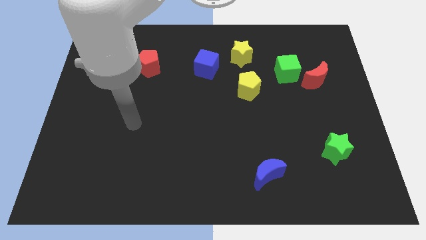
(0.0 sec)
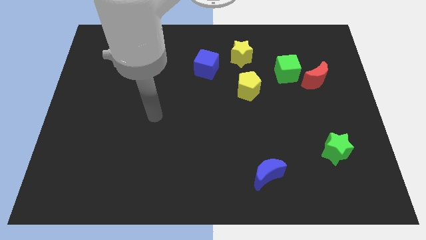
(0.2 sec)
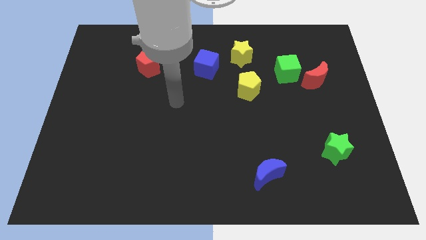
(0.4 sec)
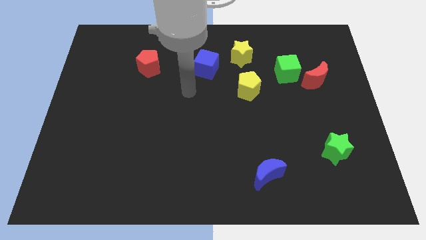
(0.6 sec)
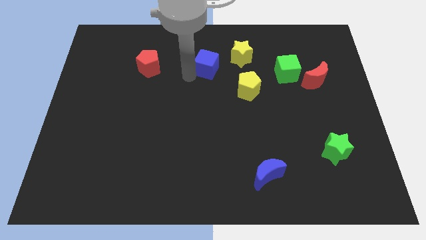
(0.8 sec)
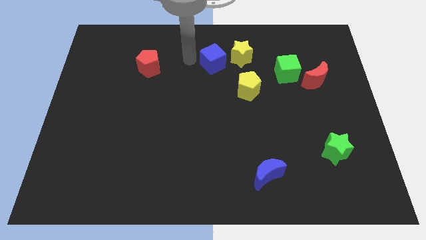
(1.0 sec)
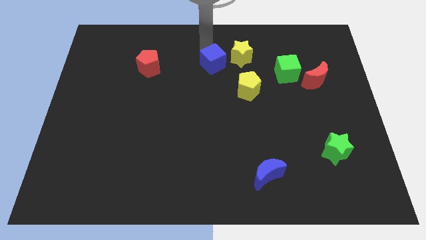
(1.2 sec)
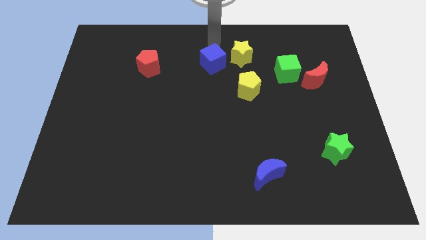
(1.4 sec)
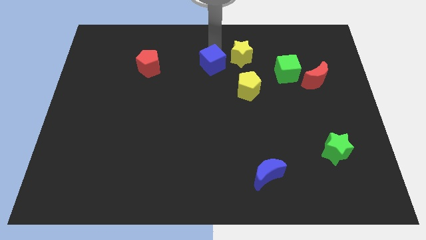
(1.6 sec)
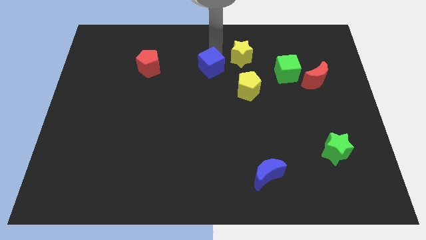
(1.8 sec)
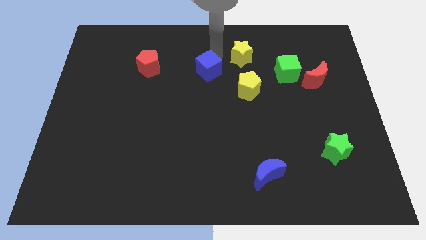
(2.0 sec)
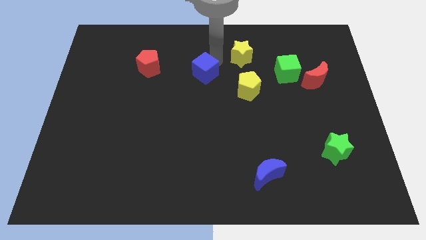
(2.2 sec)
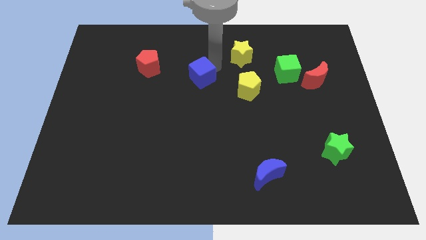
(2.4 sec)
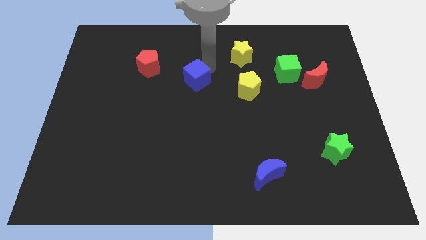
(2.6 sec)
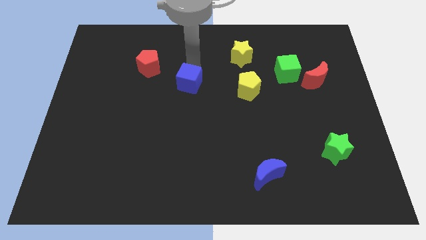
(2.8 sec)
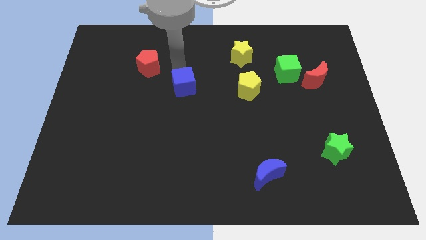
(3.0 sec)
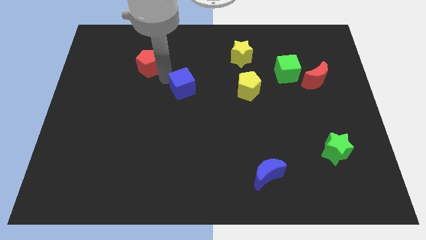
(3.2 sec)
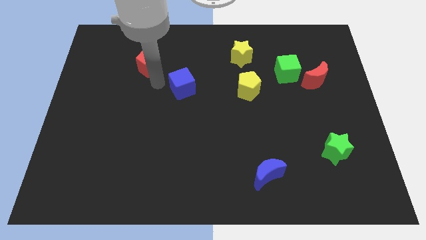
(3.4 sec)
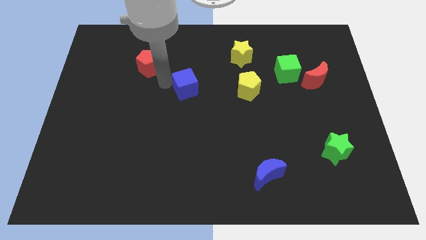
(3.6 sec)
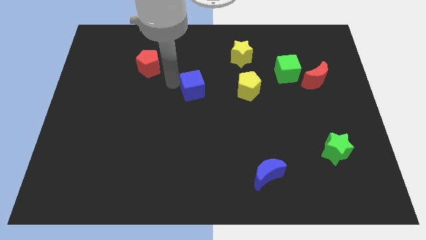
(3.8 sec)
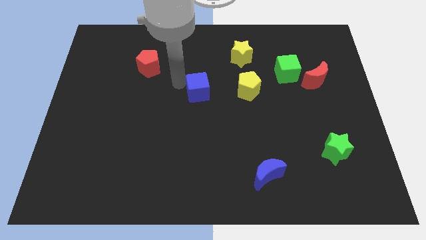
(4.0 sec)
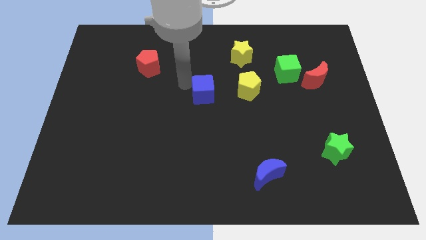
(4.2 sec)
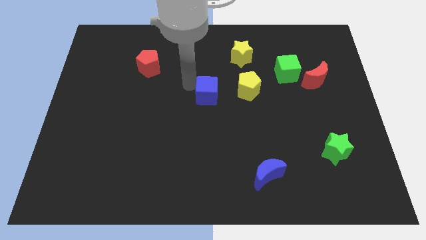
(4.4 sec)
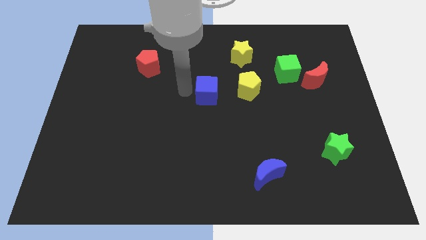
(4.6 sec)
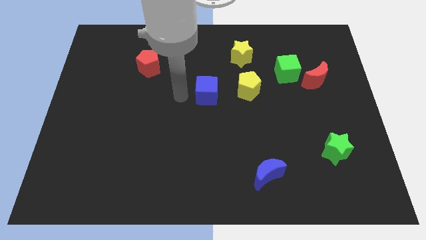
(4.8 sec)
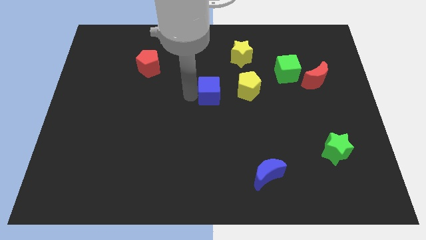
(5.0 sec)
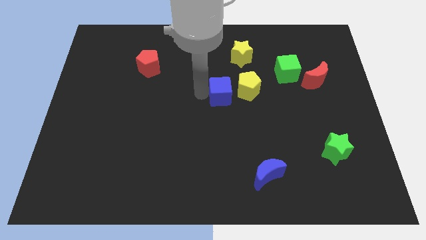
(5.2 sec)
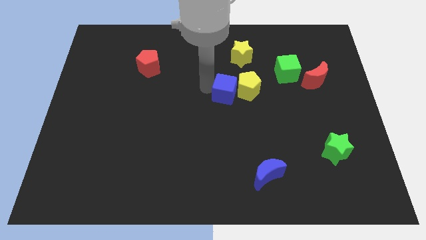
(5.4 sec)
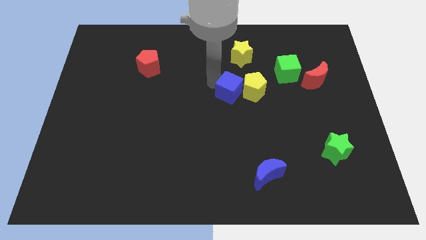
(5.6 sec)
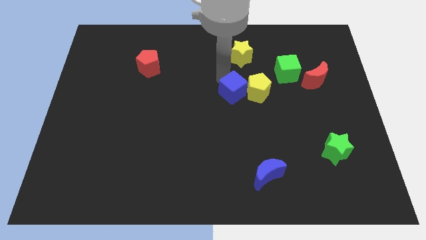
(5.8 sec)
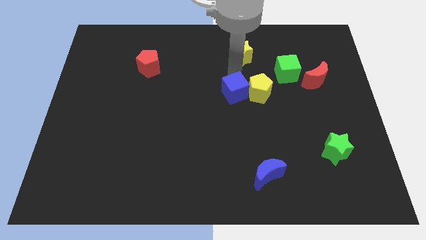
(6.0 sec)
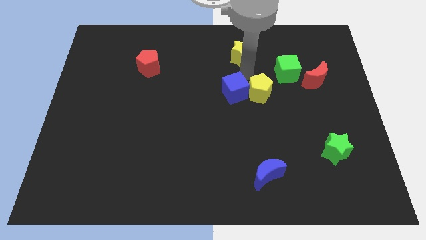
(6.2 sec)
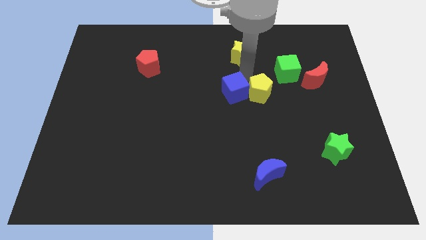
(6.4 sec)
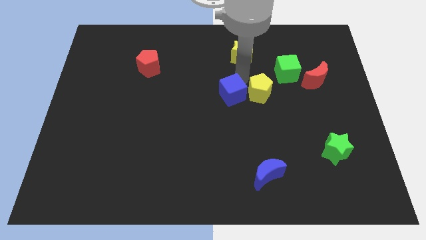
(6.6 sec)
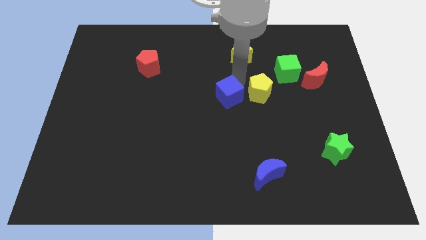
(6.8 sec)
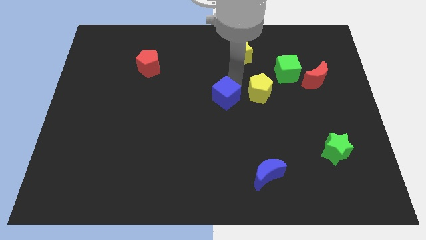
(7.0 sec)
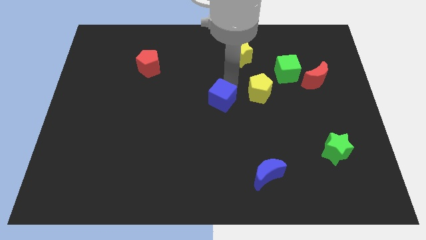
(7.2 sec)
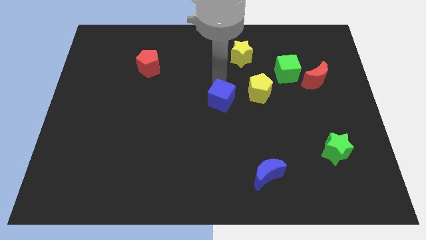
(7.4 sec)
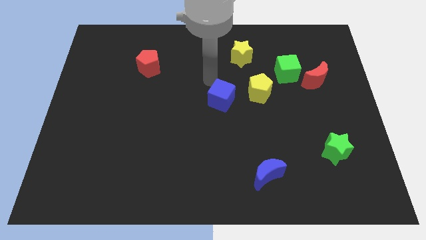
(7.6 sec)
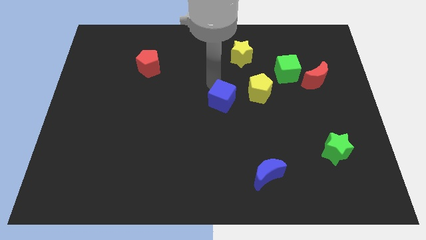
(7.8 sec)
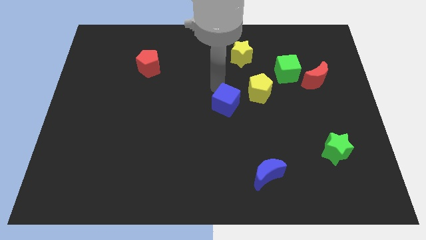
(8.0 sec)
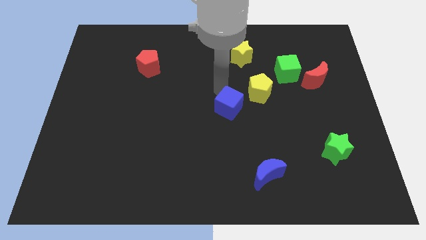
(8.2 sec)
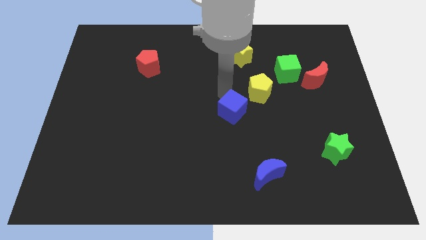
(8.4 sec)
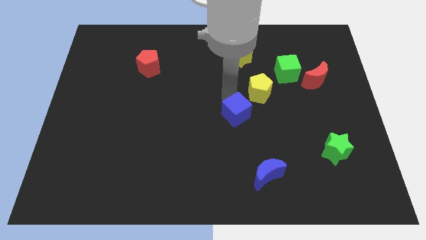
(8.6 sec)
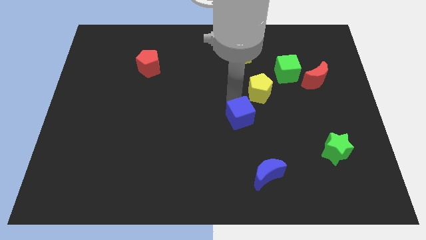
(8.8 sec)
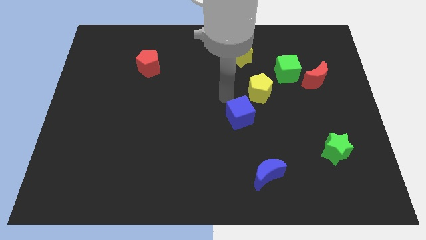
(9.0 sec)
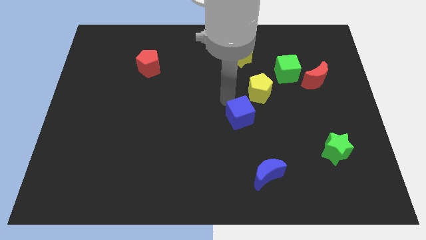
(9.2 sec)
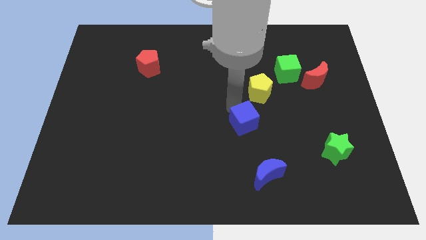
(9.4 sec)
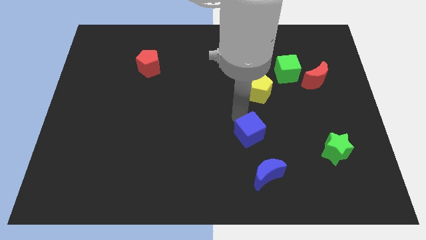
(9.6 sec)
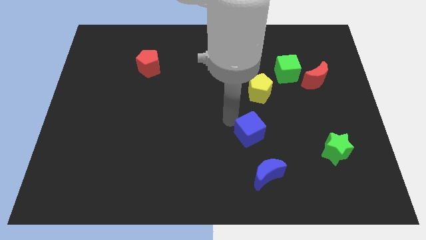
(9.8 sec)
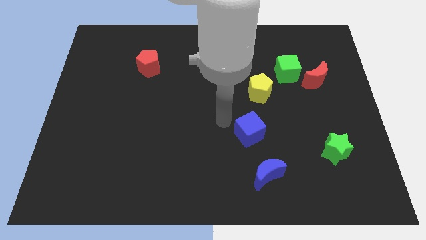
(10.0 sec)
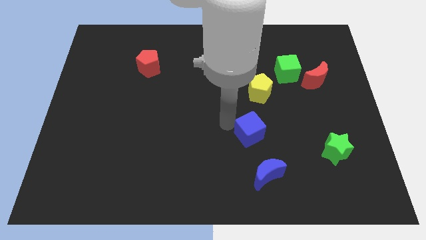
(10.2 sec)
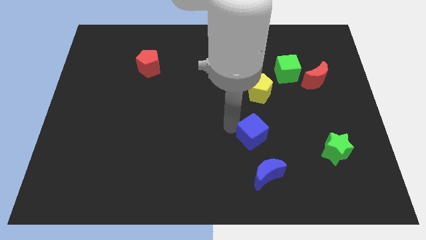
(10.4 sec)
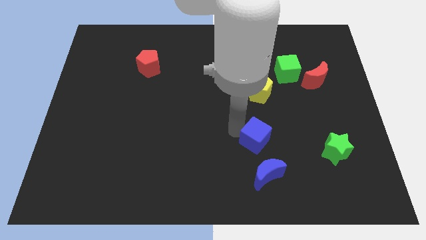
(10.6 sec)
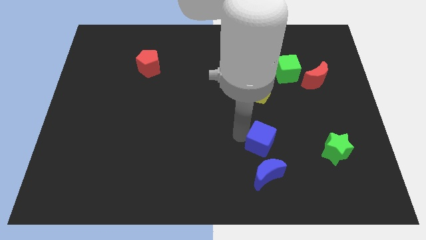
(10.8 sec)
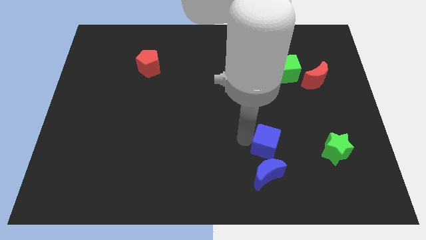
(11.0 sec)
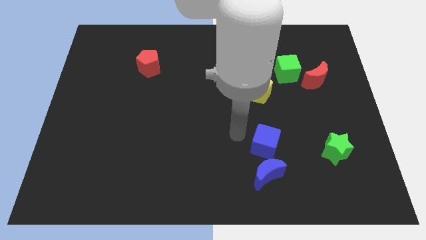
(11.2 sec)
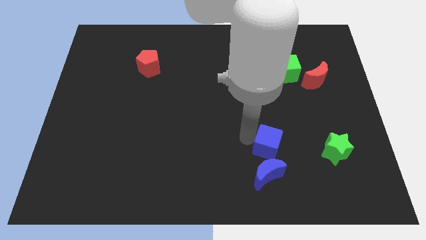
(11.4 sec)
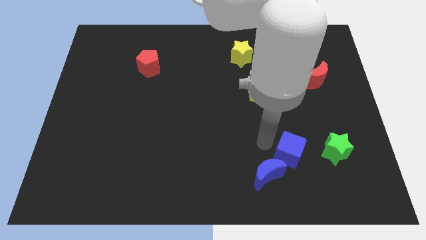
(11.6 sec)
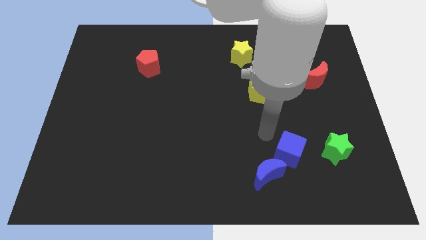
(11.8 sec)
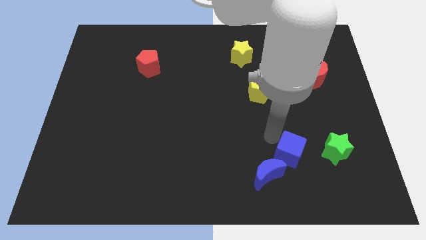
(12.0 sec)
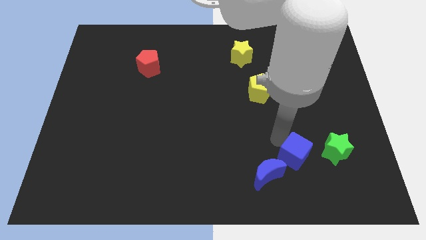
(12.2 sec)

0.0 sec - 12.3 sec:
slide the blue cube just right of the blue moon
